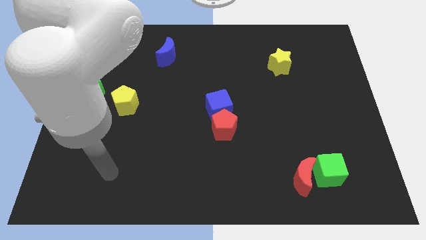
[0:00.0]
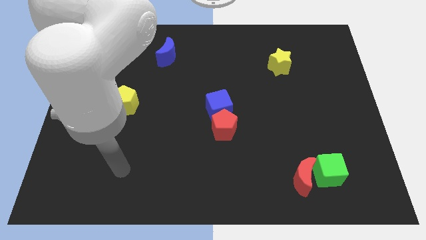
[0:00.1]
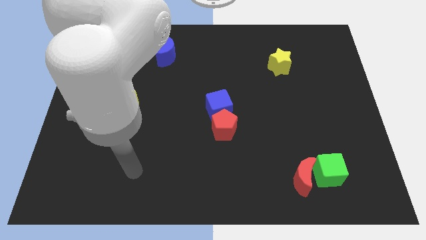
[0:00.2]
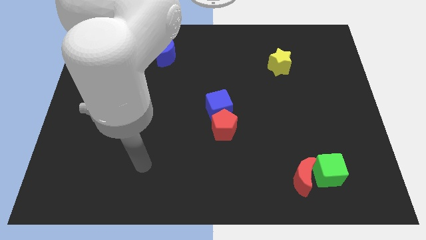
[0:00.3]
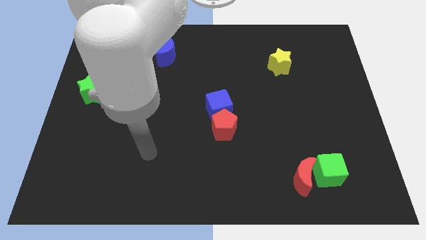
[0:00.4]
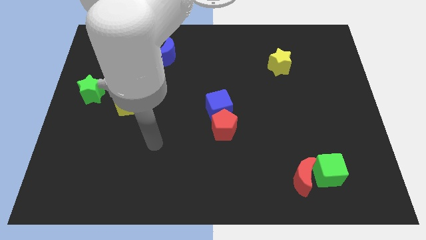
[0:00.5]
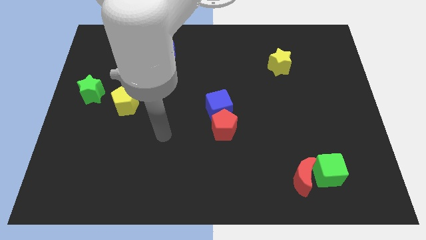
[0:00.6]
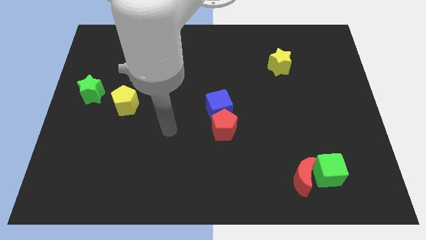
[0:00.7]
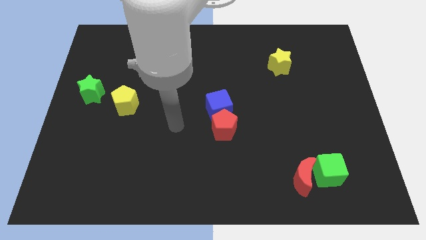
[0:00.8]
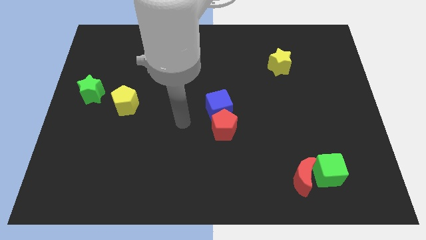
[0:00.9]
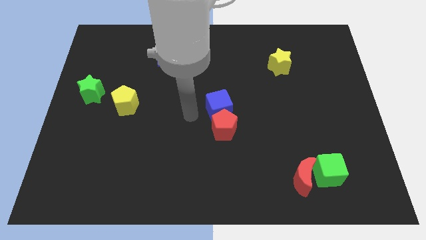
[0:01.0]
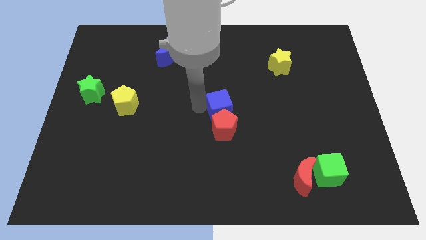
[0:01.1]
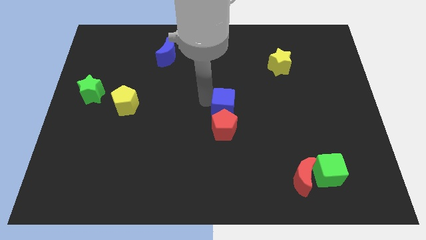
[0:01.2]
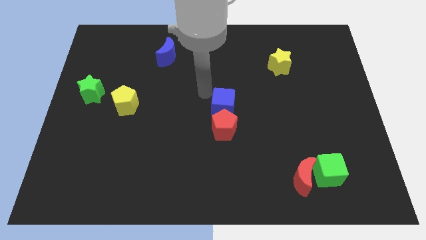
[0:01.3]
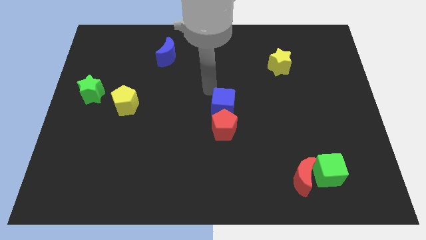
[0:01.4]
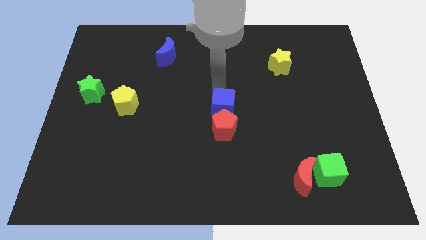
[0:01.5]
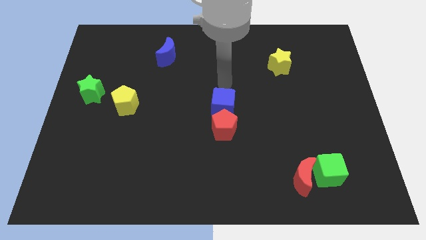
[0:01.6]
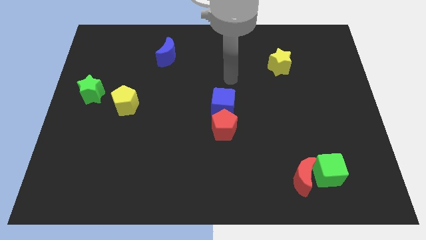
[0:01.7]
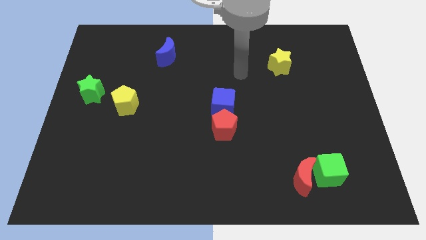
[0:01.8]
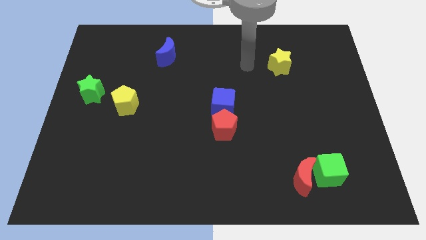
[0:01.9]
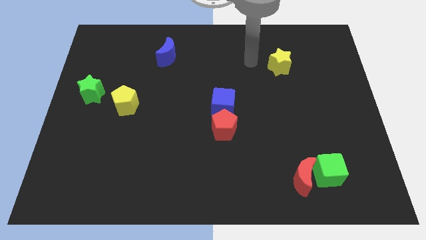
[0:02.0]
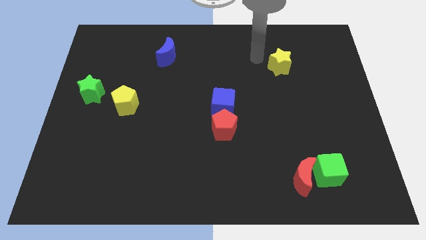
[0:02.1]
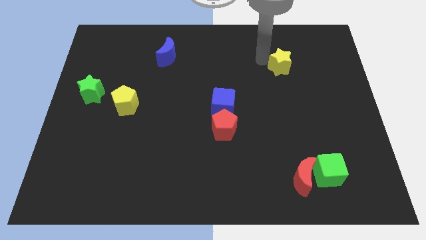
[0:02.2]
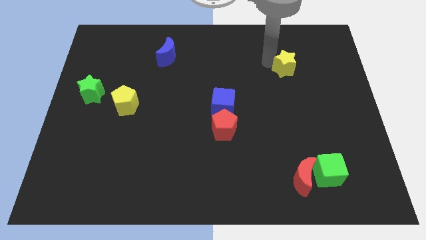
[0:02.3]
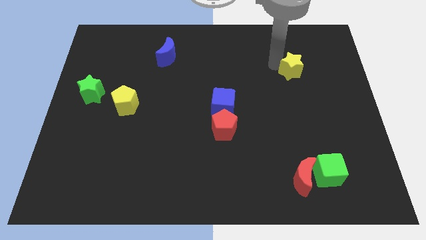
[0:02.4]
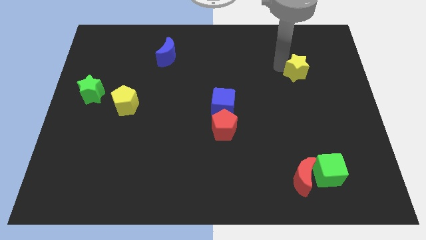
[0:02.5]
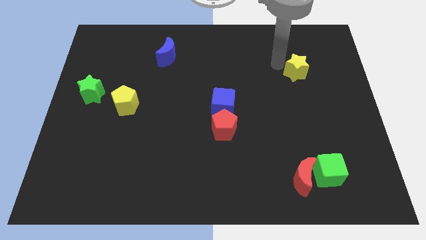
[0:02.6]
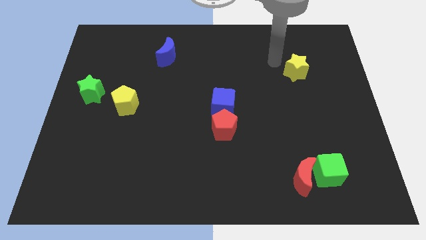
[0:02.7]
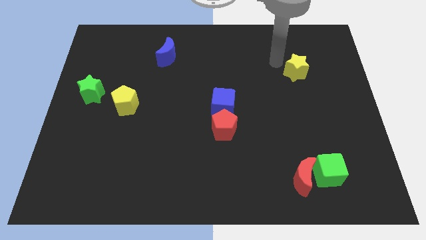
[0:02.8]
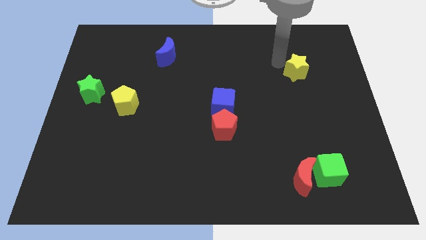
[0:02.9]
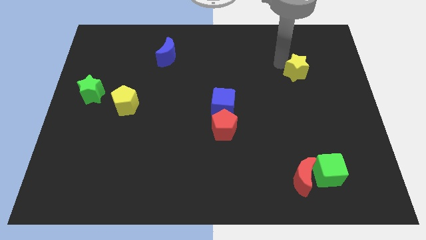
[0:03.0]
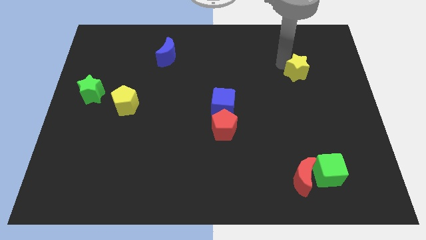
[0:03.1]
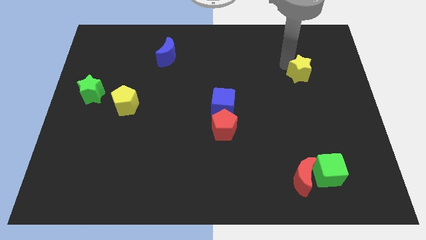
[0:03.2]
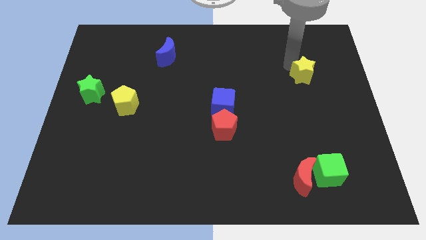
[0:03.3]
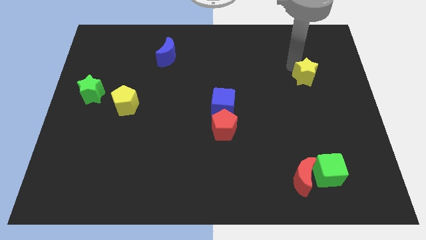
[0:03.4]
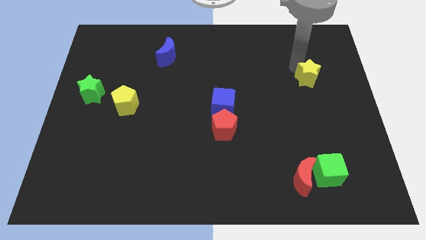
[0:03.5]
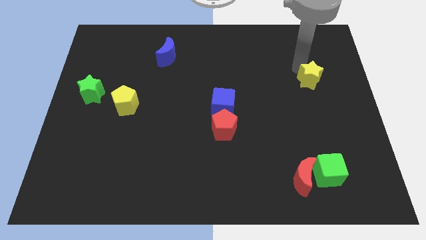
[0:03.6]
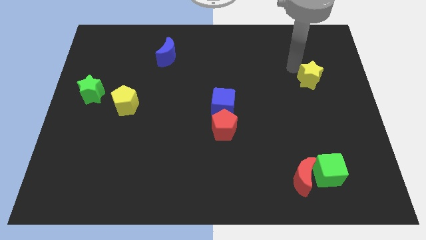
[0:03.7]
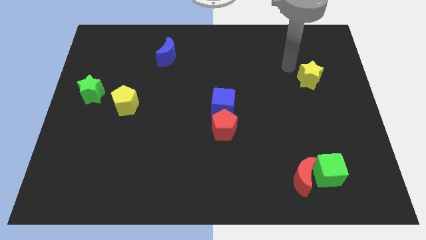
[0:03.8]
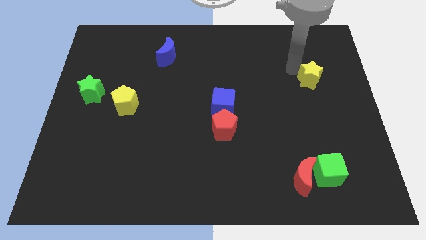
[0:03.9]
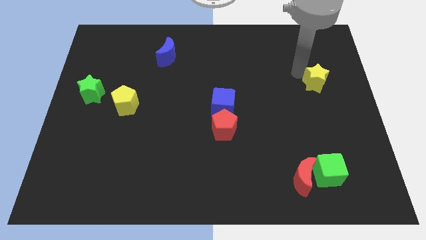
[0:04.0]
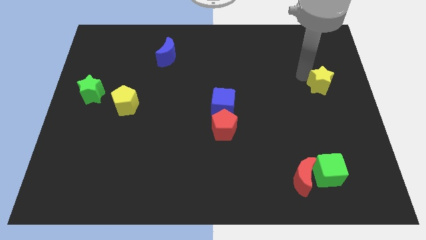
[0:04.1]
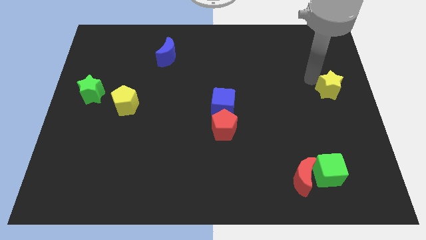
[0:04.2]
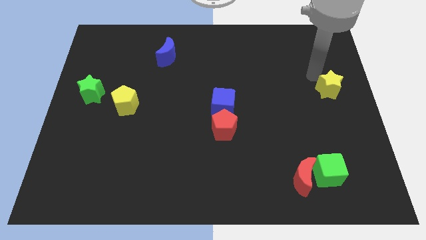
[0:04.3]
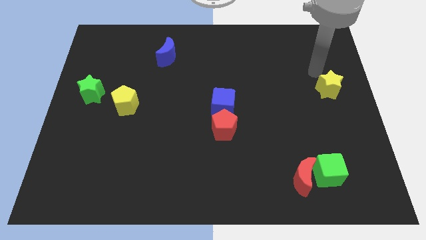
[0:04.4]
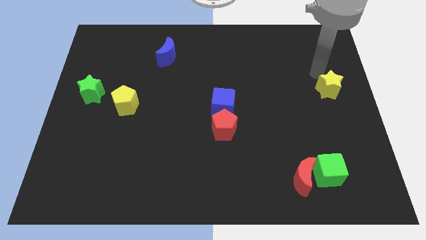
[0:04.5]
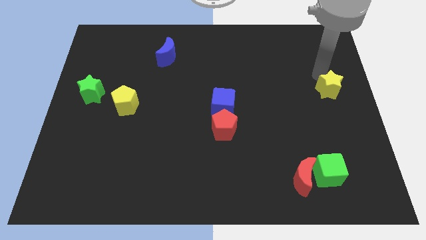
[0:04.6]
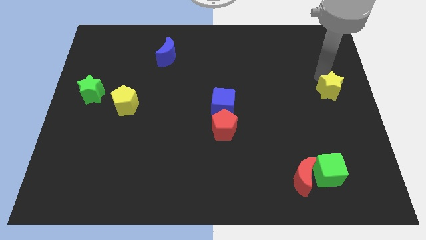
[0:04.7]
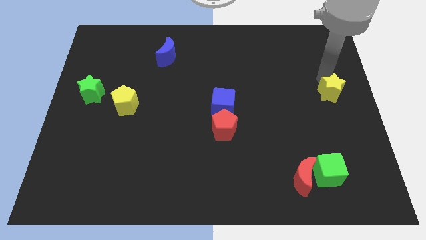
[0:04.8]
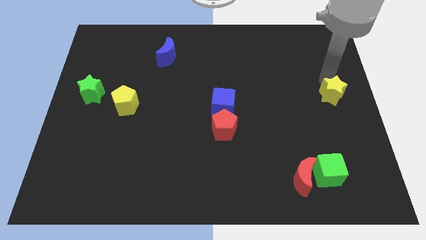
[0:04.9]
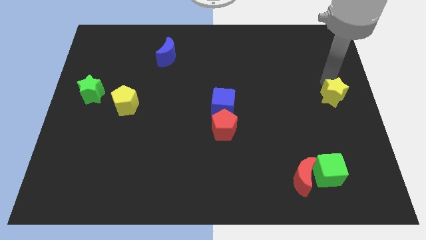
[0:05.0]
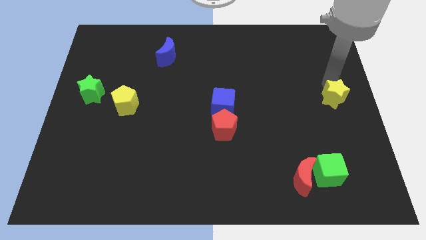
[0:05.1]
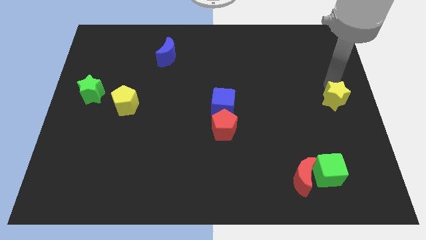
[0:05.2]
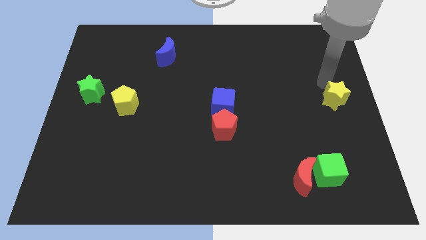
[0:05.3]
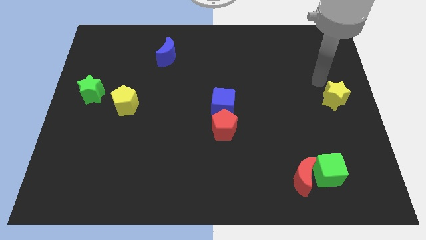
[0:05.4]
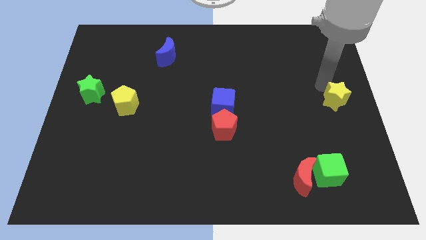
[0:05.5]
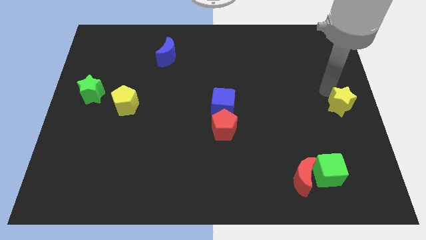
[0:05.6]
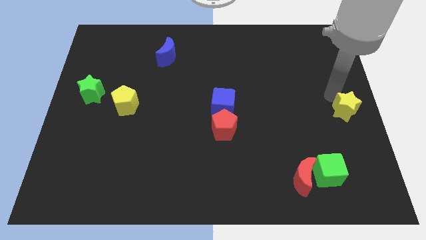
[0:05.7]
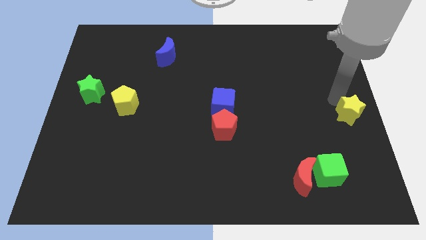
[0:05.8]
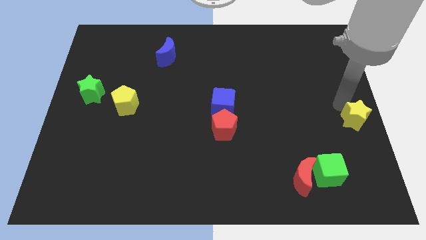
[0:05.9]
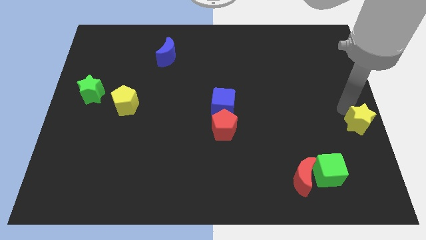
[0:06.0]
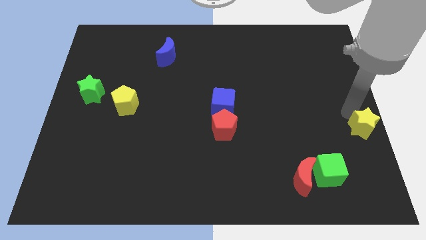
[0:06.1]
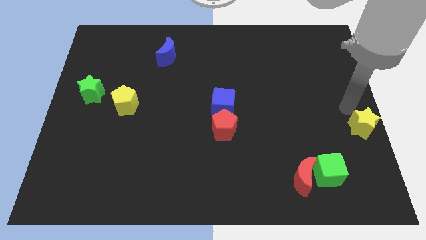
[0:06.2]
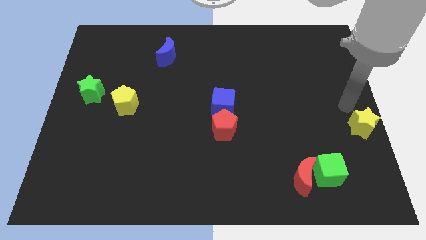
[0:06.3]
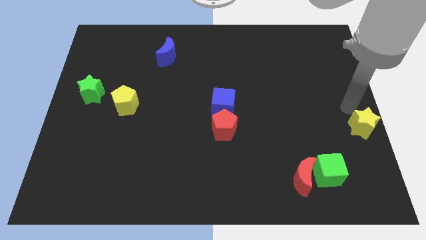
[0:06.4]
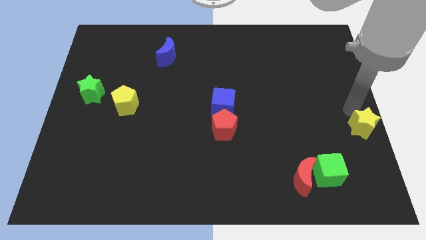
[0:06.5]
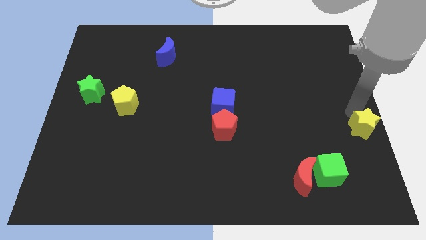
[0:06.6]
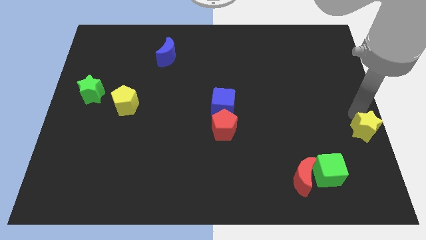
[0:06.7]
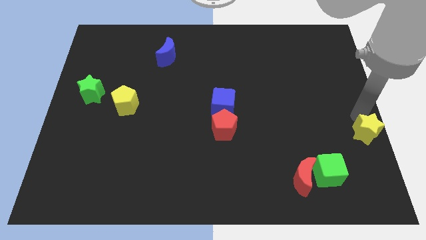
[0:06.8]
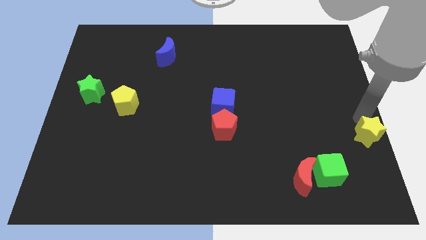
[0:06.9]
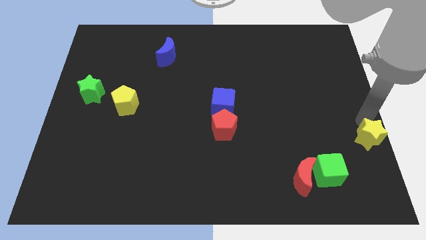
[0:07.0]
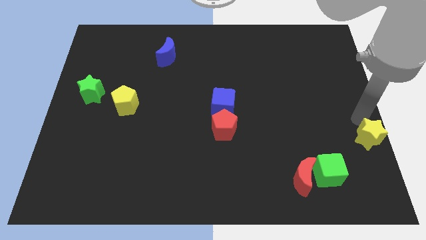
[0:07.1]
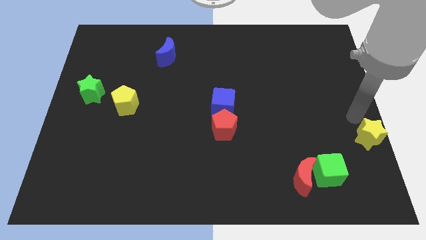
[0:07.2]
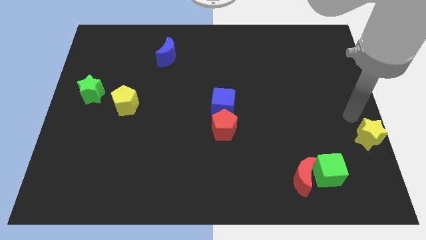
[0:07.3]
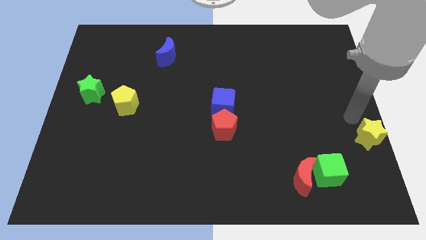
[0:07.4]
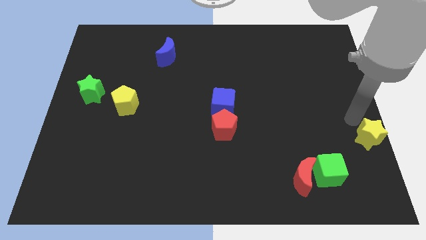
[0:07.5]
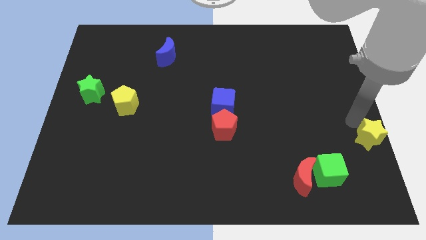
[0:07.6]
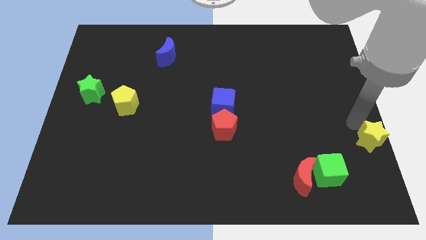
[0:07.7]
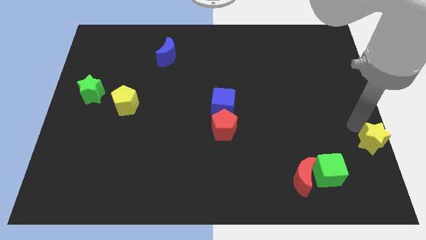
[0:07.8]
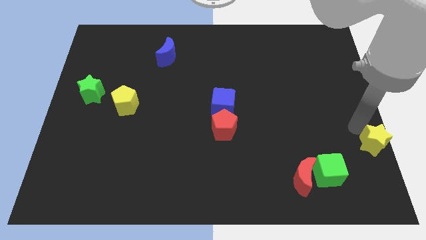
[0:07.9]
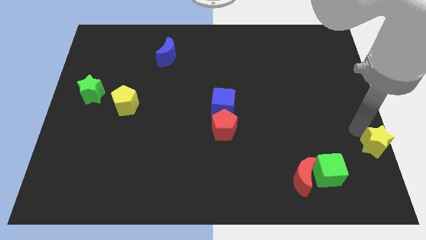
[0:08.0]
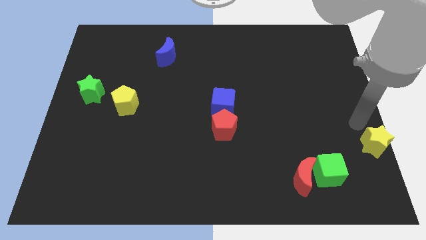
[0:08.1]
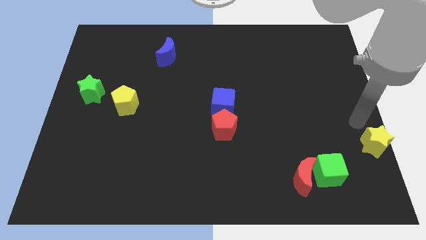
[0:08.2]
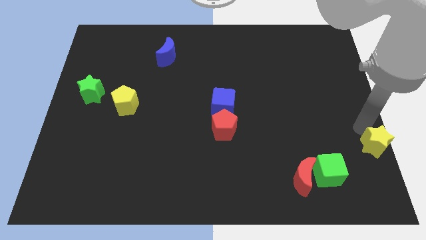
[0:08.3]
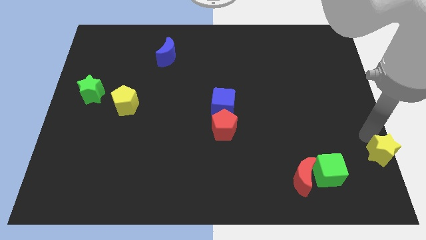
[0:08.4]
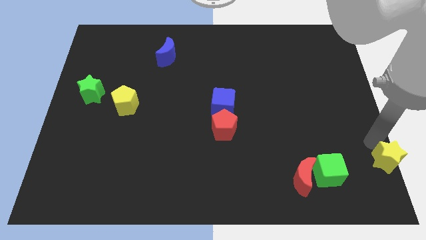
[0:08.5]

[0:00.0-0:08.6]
push the yellow star to the bottom right
